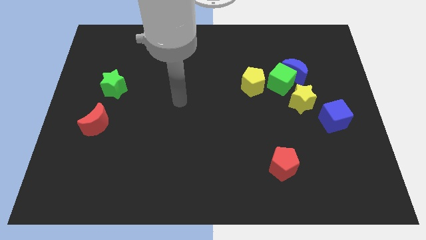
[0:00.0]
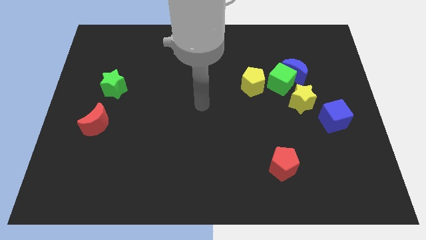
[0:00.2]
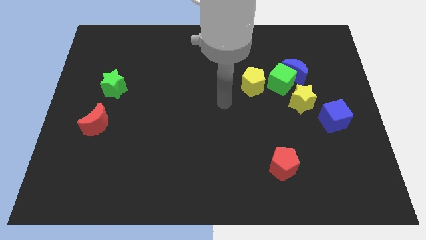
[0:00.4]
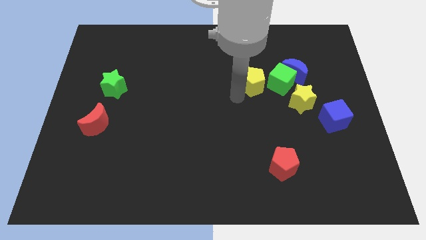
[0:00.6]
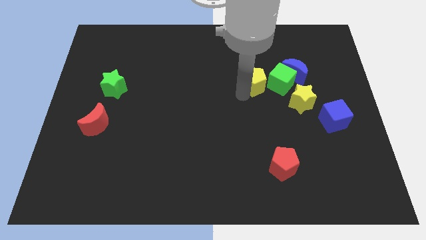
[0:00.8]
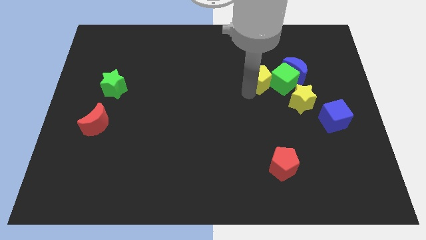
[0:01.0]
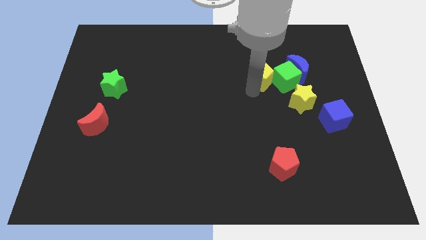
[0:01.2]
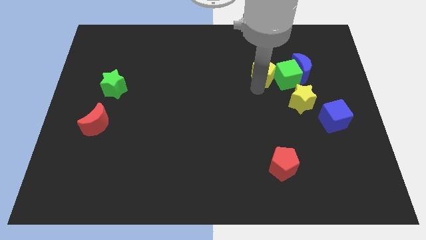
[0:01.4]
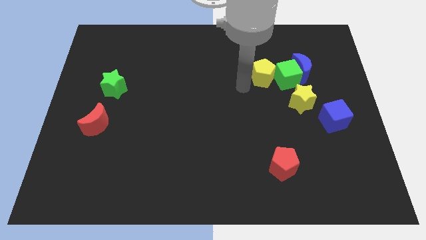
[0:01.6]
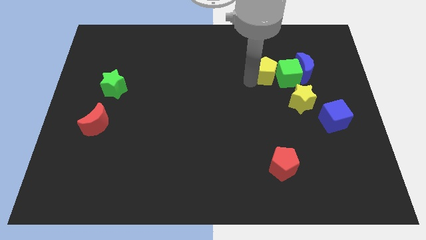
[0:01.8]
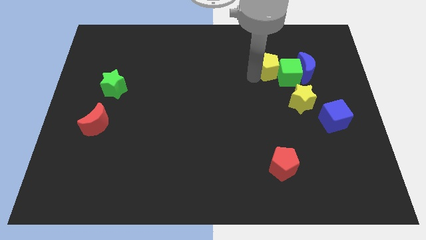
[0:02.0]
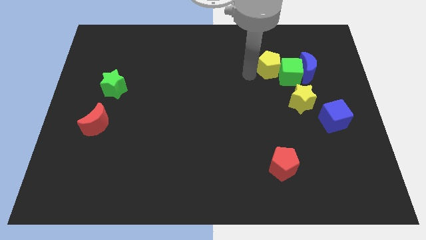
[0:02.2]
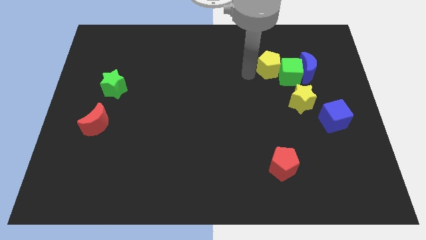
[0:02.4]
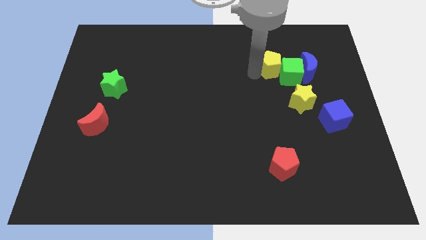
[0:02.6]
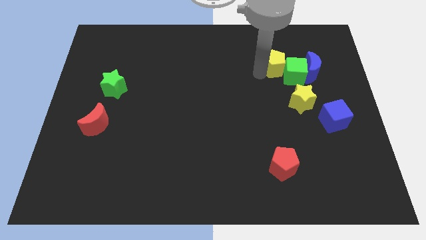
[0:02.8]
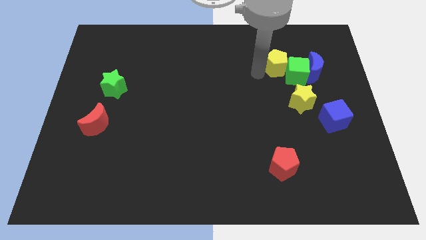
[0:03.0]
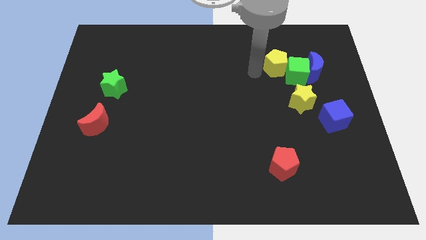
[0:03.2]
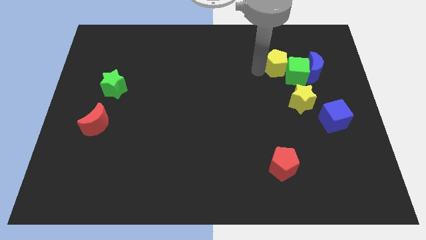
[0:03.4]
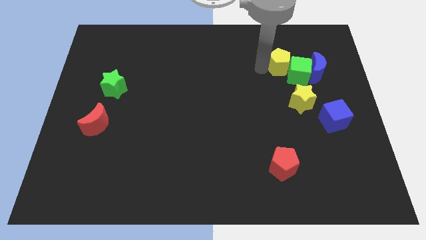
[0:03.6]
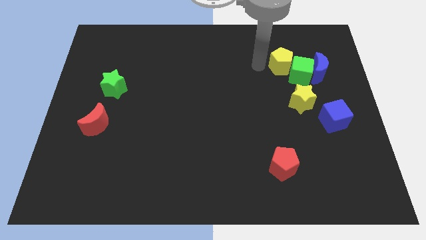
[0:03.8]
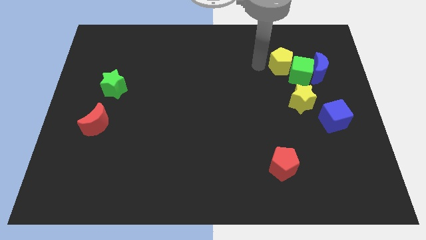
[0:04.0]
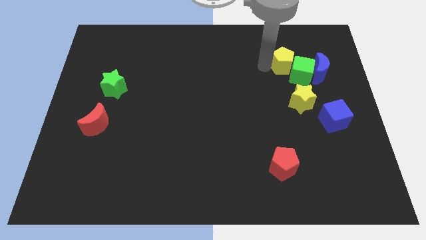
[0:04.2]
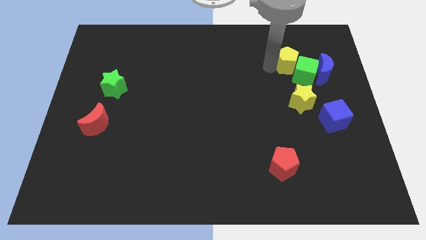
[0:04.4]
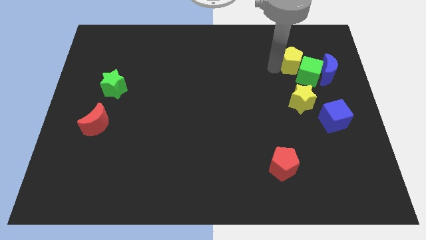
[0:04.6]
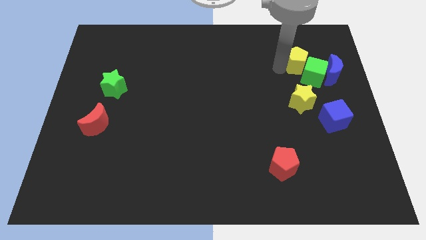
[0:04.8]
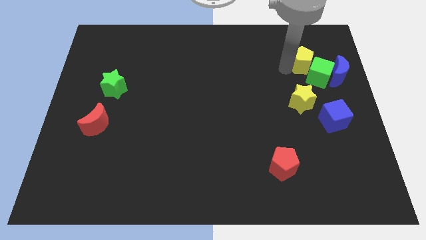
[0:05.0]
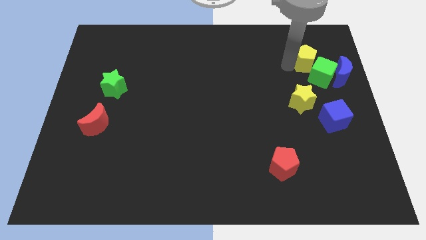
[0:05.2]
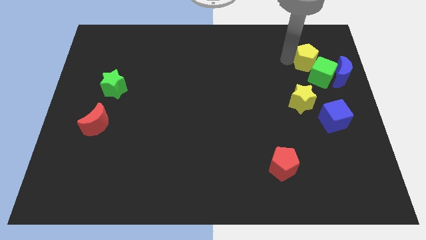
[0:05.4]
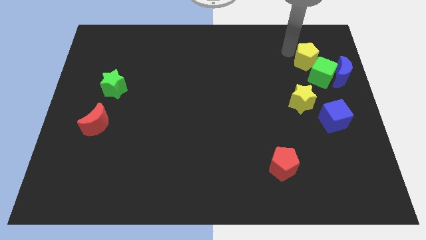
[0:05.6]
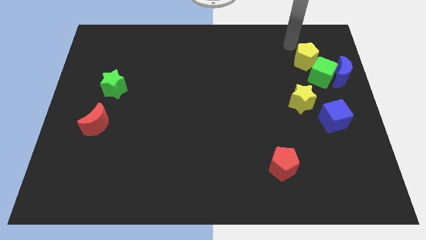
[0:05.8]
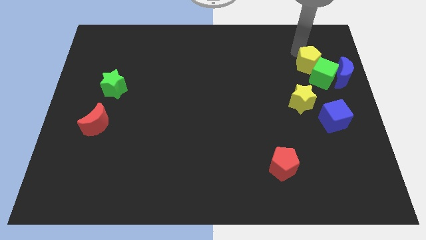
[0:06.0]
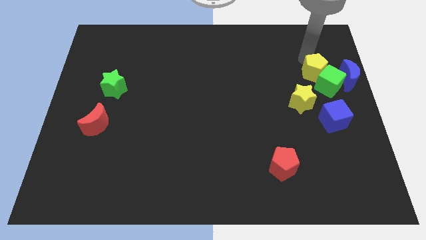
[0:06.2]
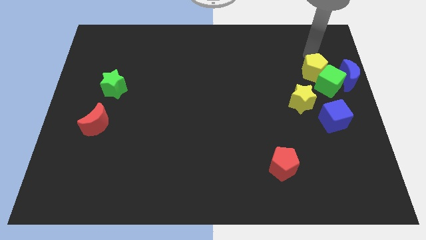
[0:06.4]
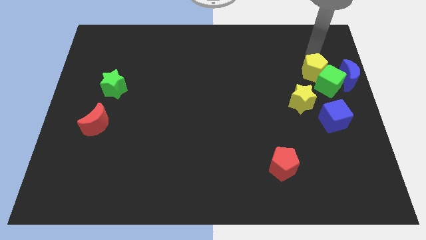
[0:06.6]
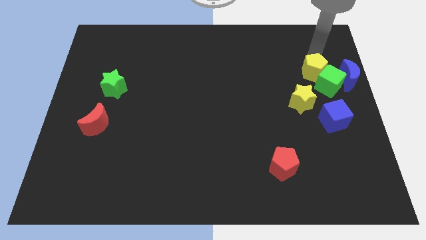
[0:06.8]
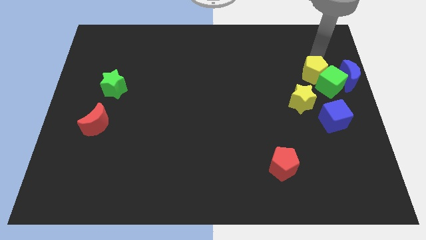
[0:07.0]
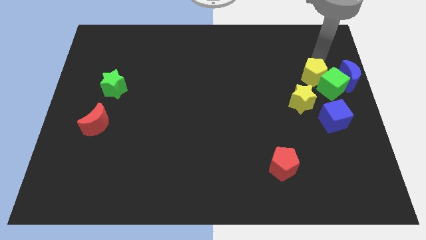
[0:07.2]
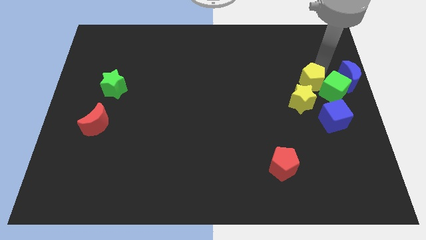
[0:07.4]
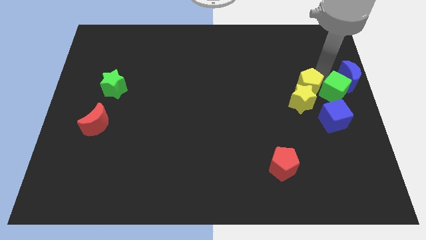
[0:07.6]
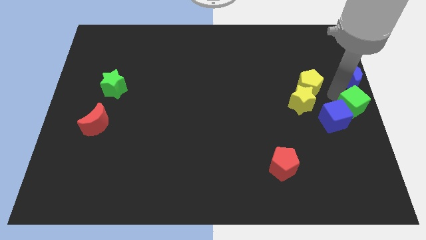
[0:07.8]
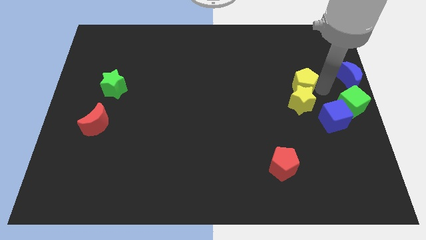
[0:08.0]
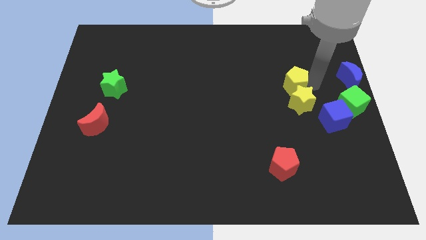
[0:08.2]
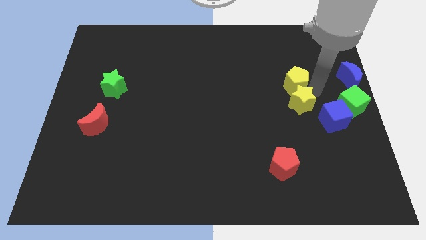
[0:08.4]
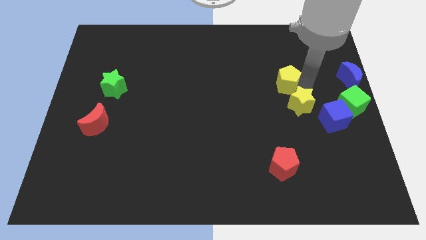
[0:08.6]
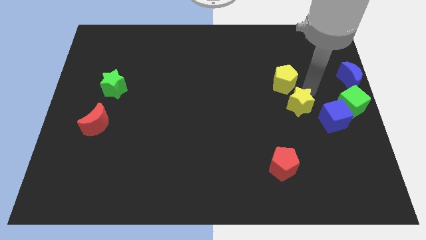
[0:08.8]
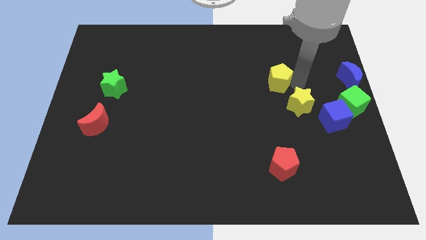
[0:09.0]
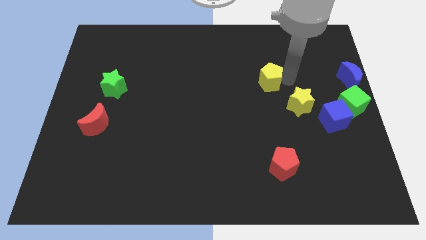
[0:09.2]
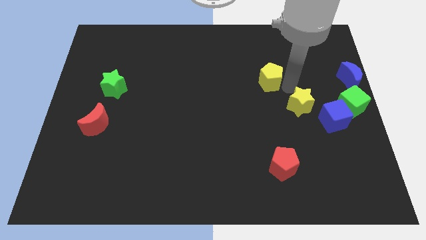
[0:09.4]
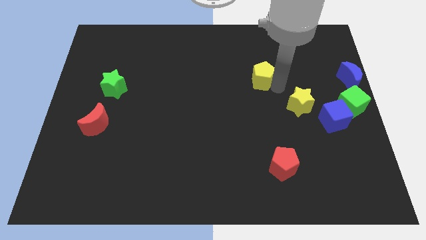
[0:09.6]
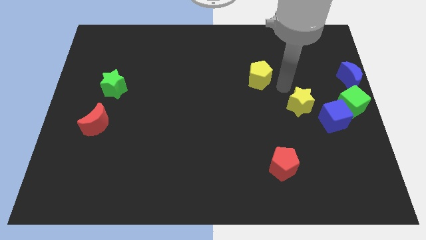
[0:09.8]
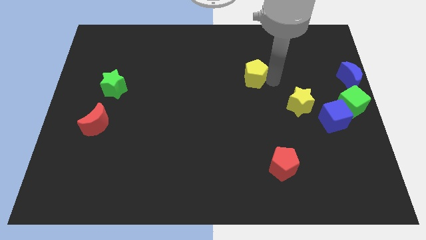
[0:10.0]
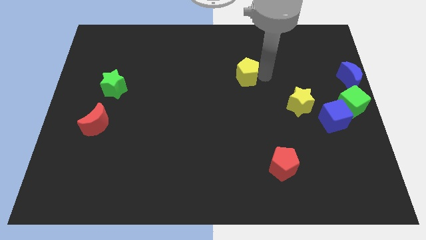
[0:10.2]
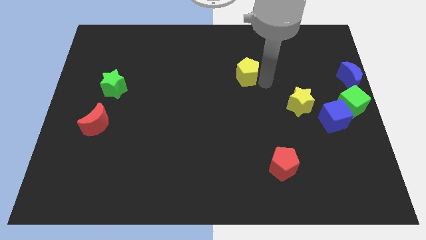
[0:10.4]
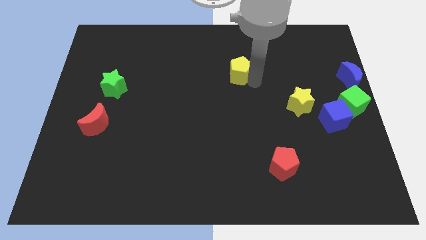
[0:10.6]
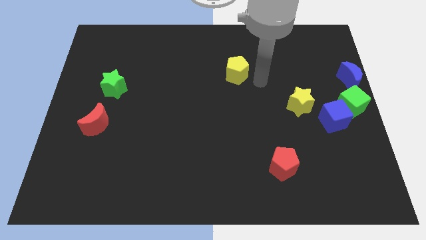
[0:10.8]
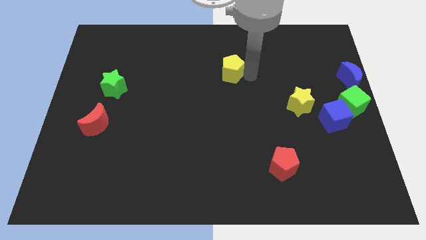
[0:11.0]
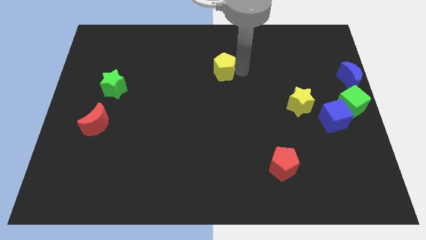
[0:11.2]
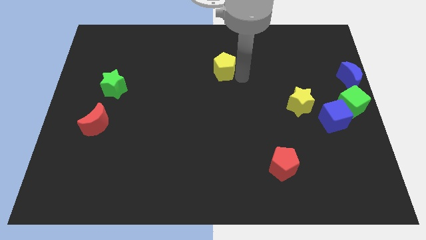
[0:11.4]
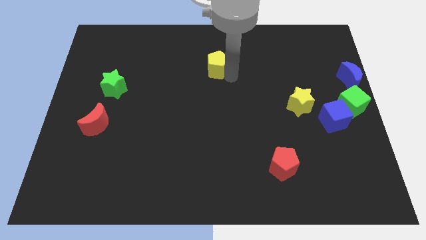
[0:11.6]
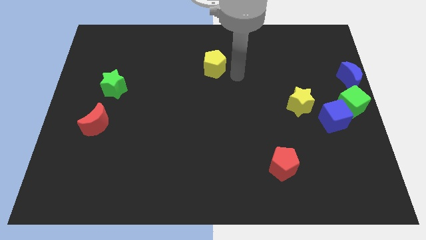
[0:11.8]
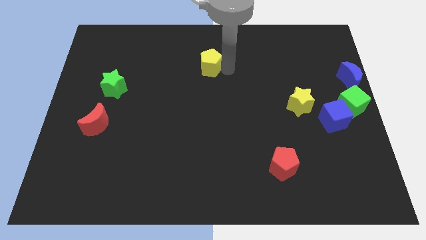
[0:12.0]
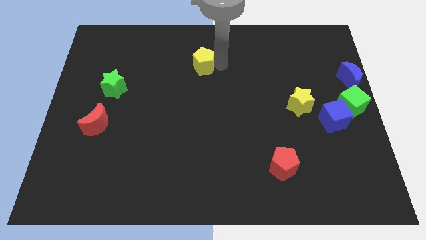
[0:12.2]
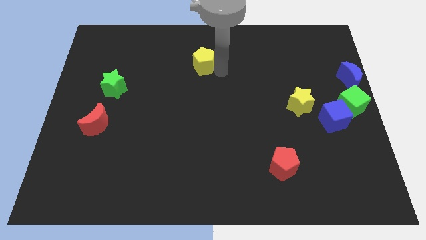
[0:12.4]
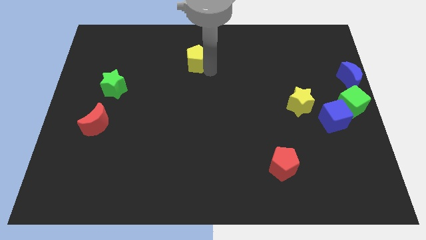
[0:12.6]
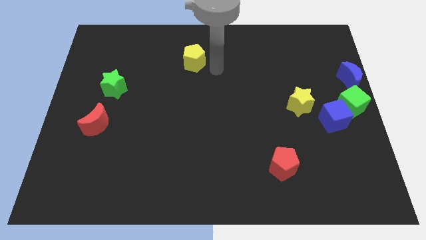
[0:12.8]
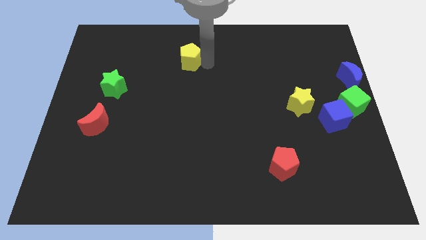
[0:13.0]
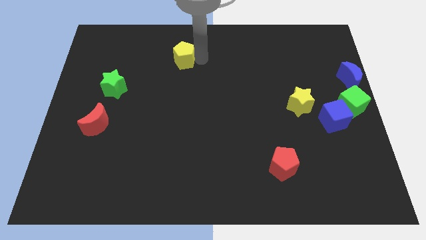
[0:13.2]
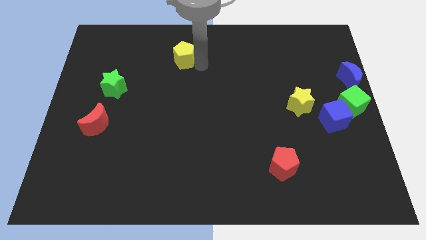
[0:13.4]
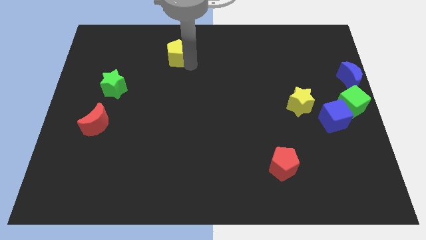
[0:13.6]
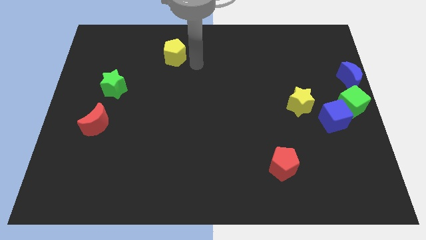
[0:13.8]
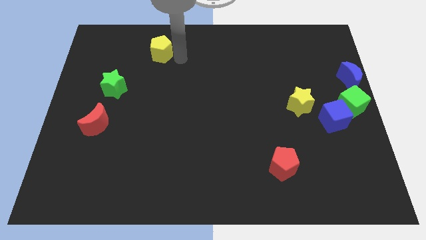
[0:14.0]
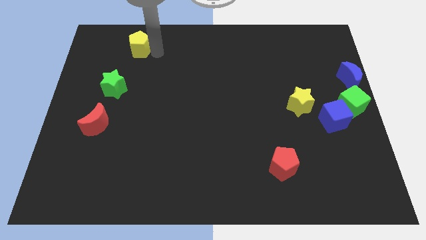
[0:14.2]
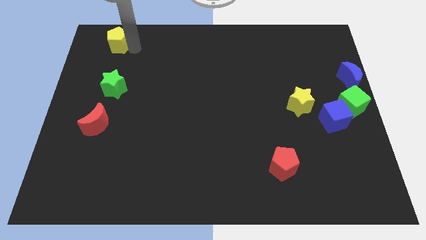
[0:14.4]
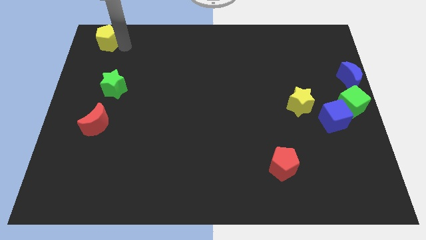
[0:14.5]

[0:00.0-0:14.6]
put the yellow pentagon to the top left
